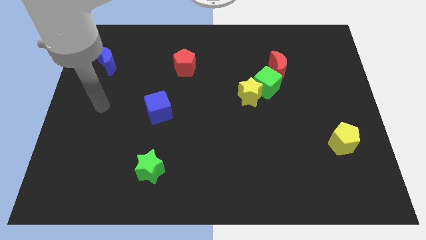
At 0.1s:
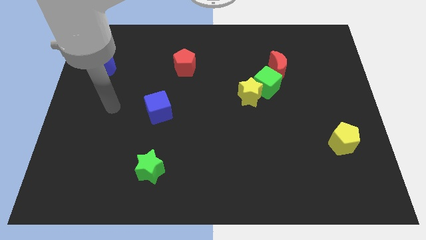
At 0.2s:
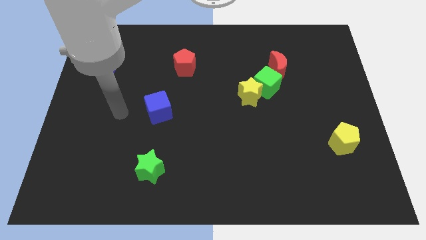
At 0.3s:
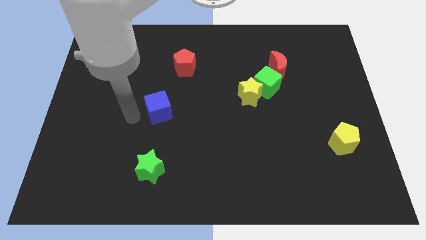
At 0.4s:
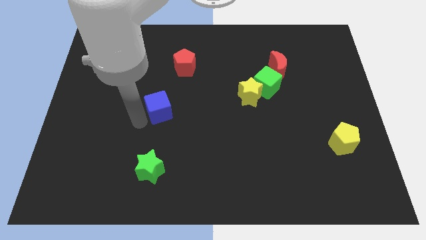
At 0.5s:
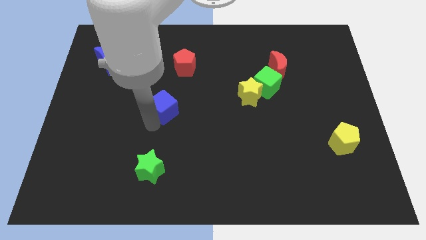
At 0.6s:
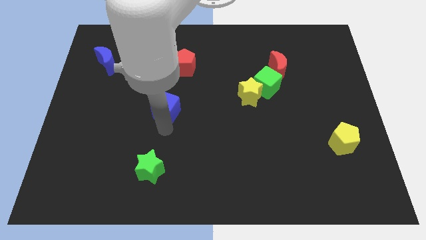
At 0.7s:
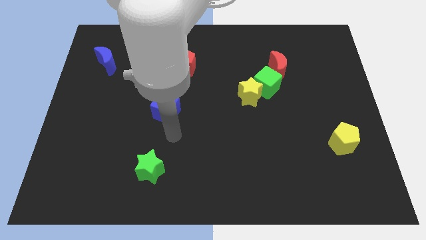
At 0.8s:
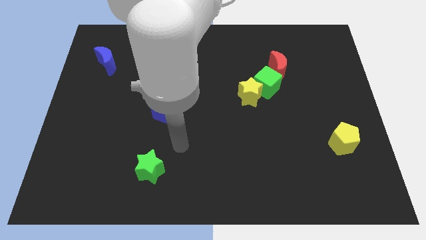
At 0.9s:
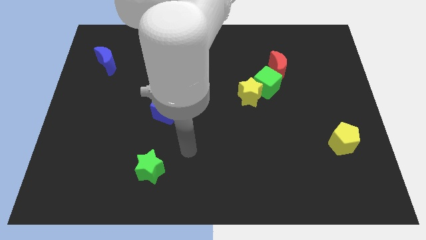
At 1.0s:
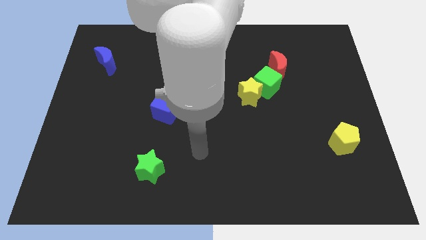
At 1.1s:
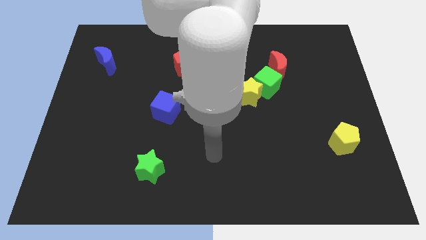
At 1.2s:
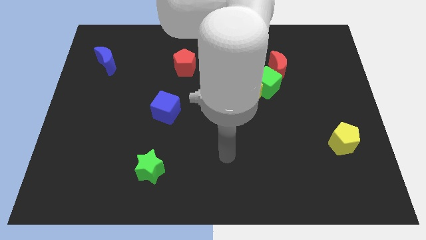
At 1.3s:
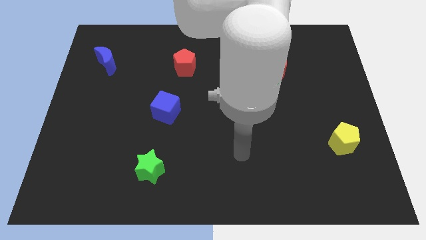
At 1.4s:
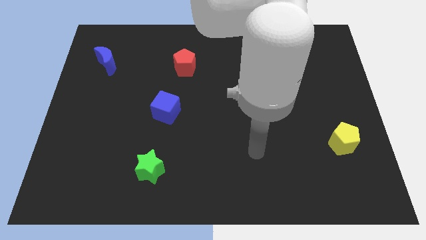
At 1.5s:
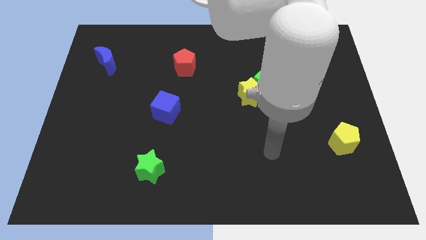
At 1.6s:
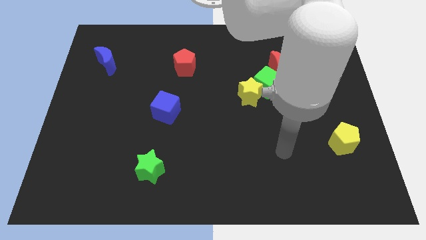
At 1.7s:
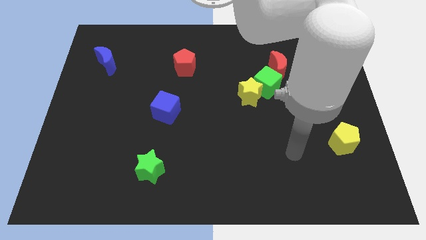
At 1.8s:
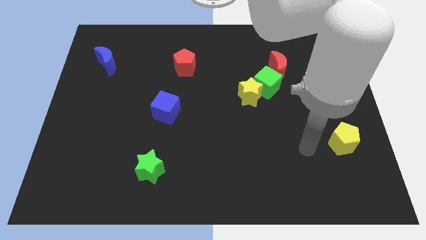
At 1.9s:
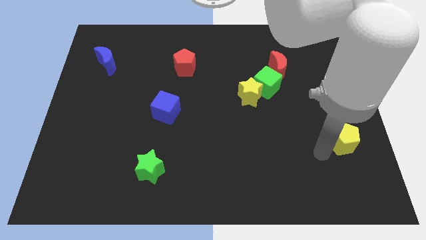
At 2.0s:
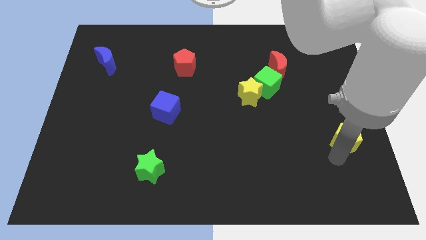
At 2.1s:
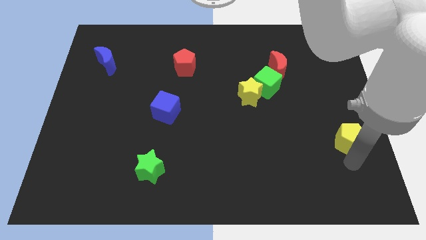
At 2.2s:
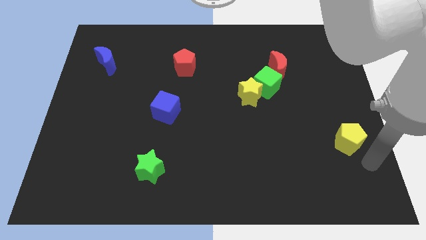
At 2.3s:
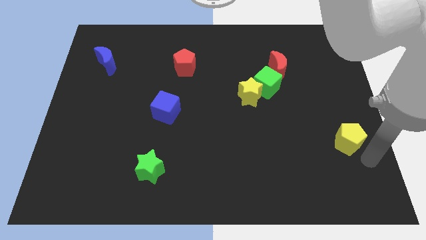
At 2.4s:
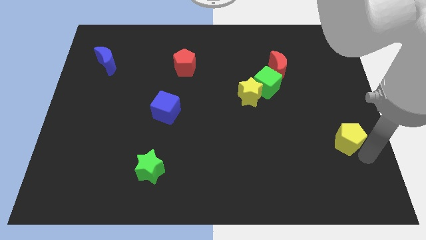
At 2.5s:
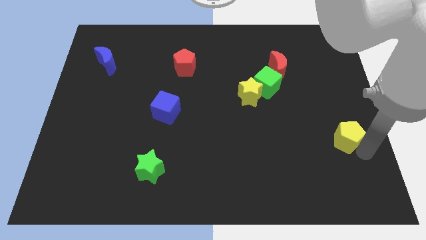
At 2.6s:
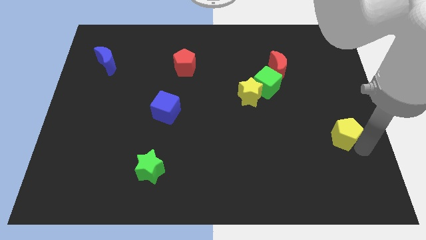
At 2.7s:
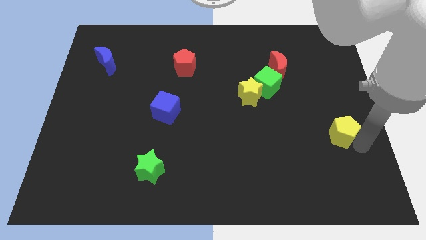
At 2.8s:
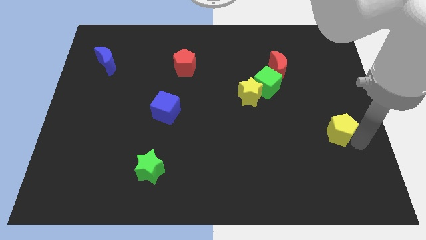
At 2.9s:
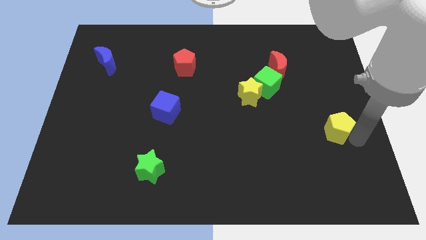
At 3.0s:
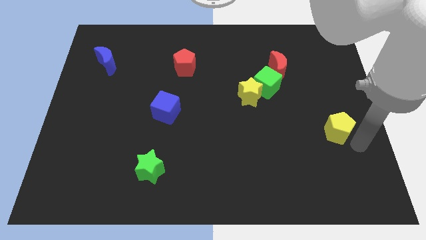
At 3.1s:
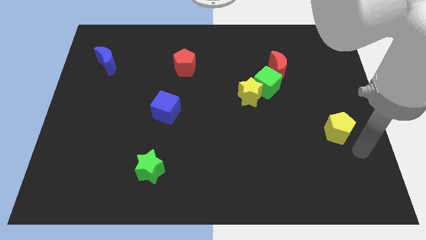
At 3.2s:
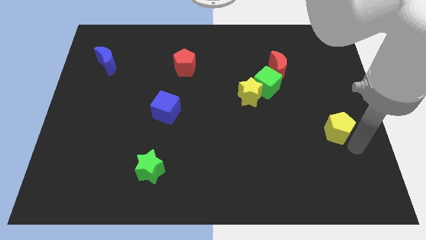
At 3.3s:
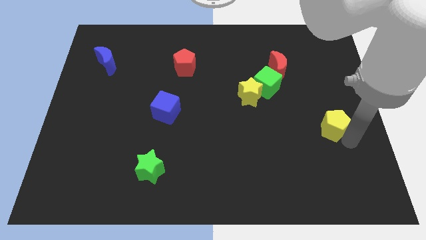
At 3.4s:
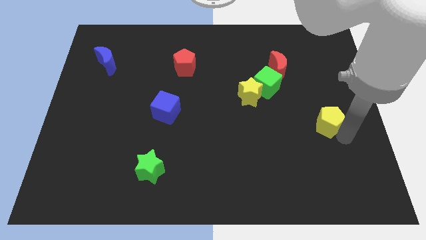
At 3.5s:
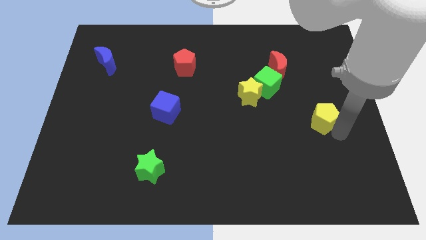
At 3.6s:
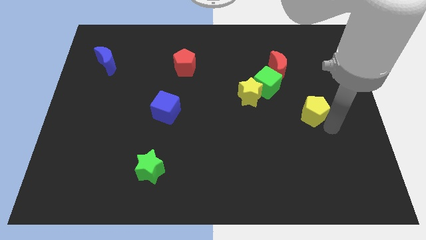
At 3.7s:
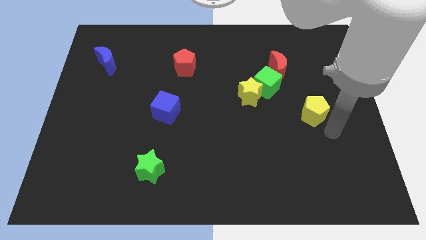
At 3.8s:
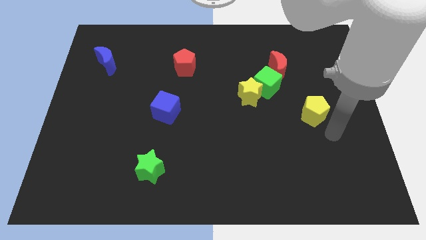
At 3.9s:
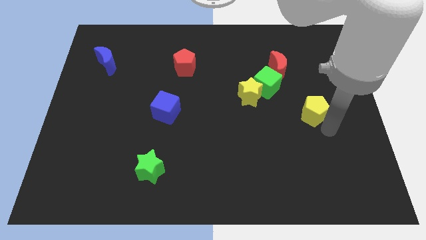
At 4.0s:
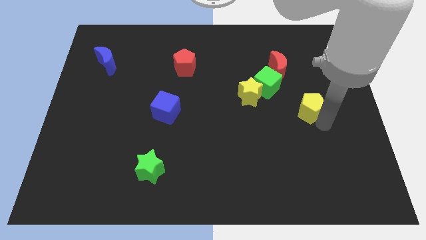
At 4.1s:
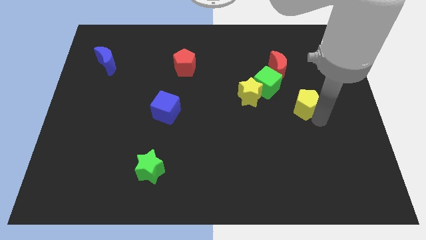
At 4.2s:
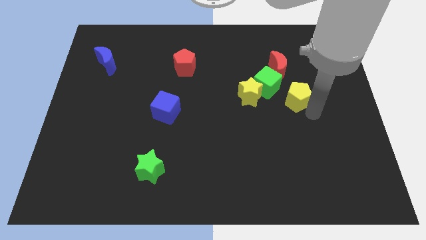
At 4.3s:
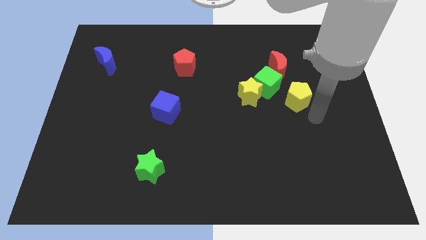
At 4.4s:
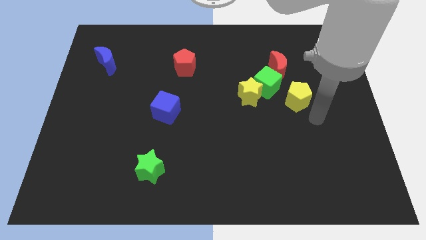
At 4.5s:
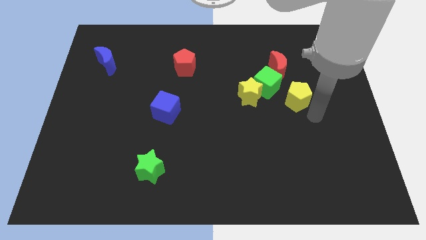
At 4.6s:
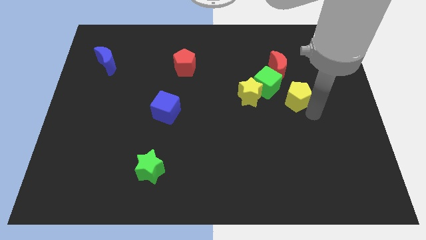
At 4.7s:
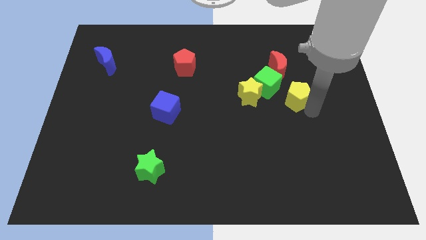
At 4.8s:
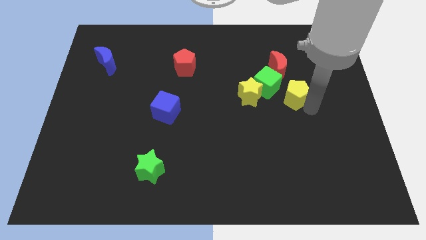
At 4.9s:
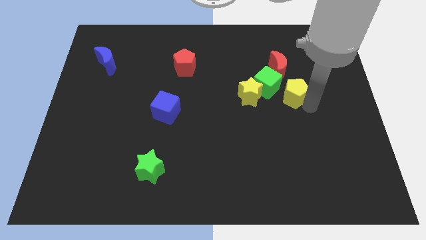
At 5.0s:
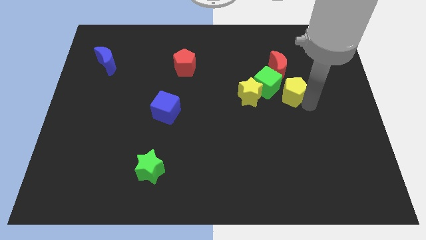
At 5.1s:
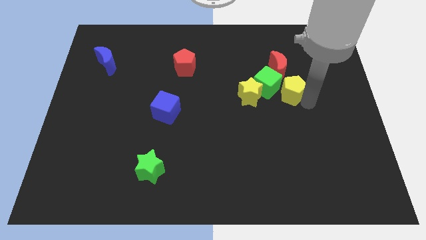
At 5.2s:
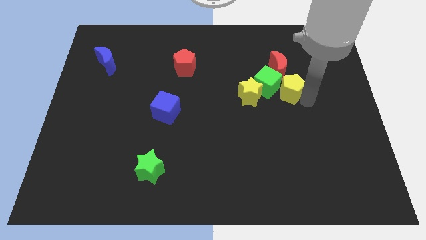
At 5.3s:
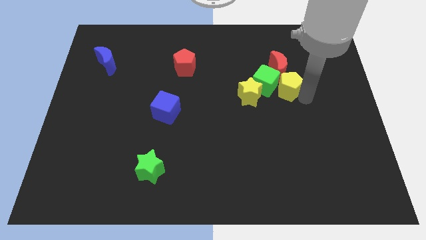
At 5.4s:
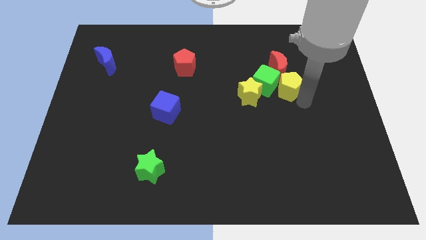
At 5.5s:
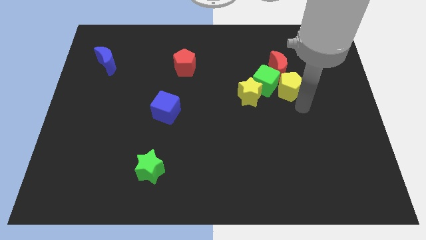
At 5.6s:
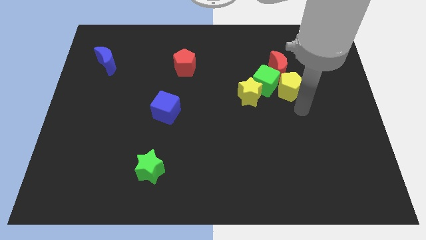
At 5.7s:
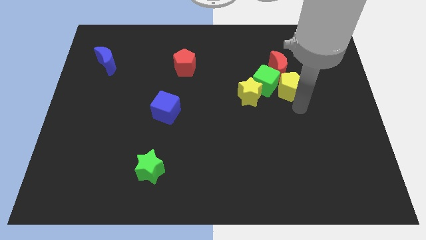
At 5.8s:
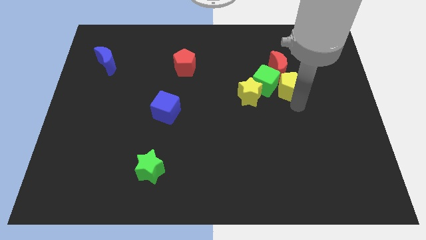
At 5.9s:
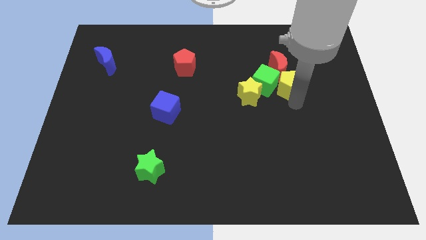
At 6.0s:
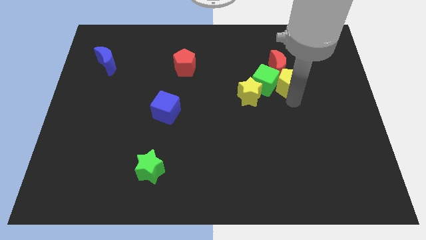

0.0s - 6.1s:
put the yellow pentagon to the red moon

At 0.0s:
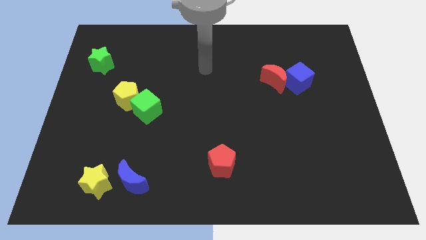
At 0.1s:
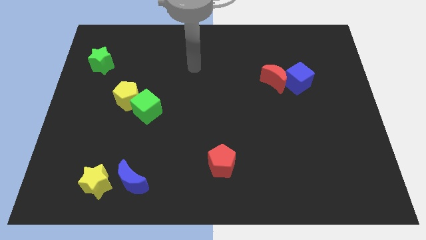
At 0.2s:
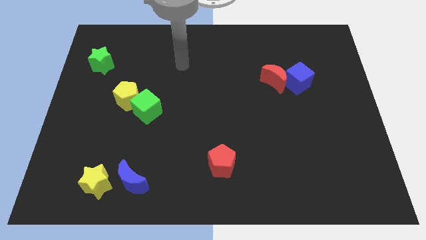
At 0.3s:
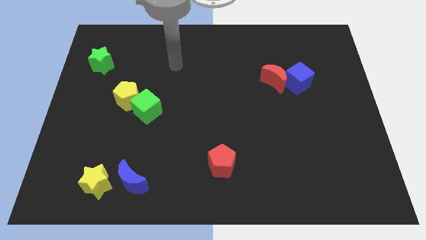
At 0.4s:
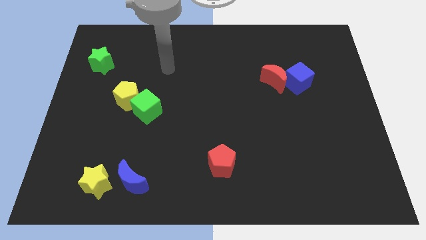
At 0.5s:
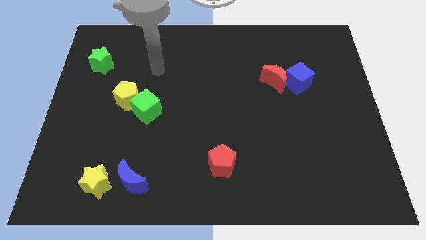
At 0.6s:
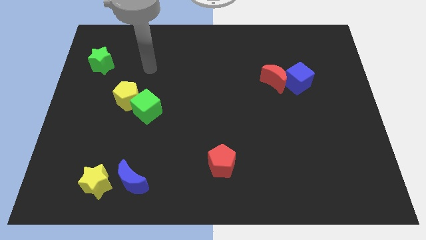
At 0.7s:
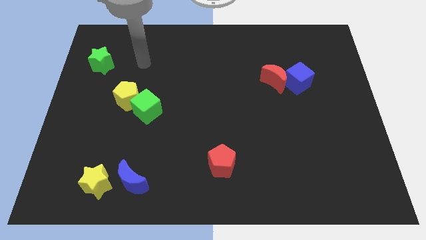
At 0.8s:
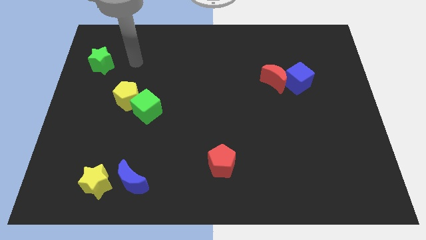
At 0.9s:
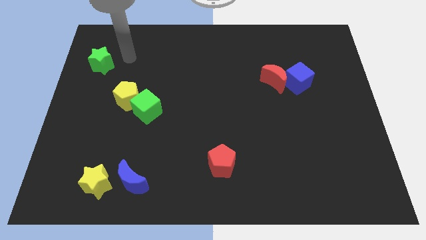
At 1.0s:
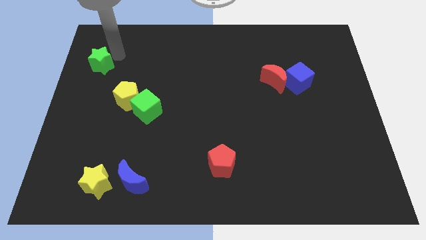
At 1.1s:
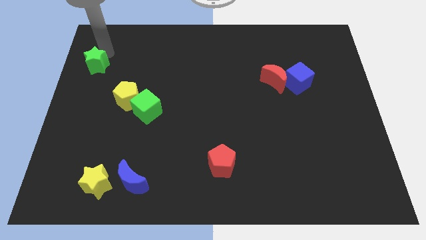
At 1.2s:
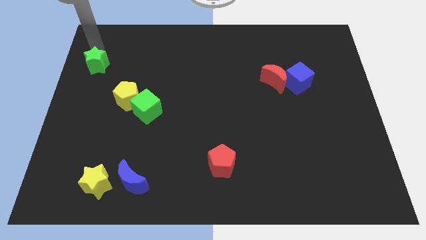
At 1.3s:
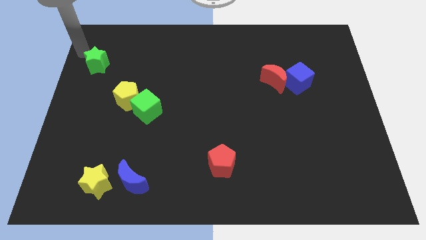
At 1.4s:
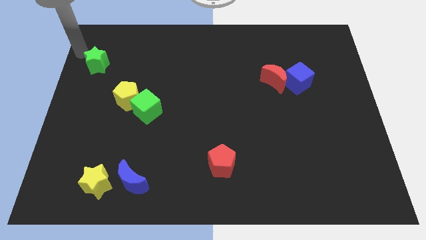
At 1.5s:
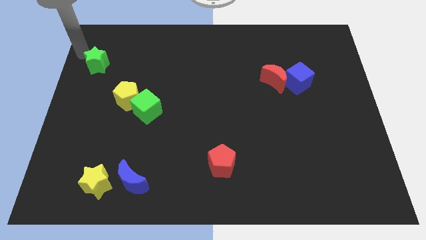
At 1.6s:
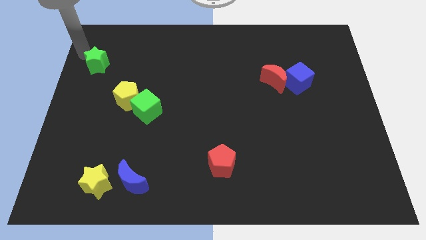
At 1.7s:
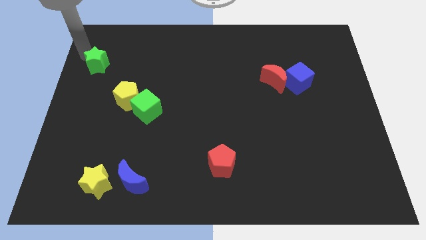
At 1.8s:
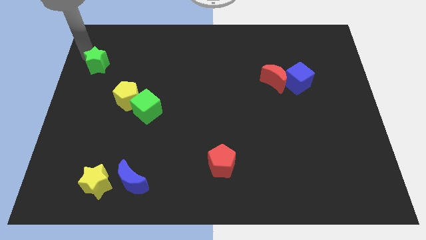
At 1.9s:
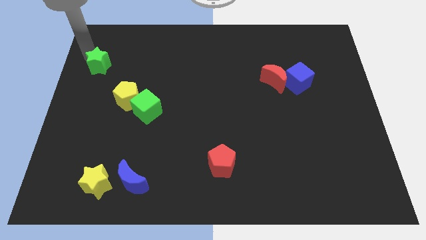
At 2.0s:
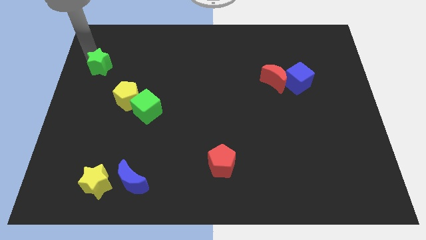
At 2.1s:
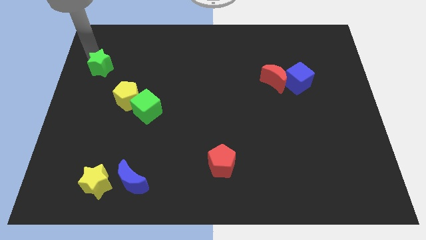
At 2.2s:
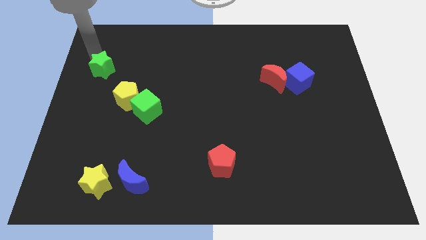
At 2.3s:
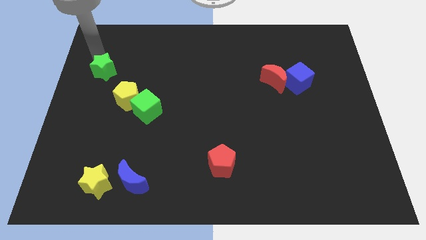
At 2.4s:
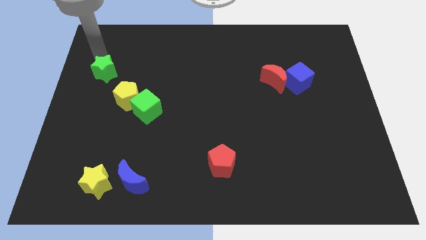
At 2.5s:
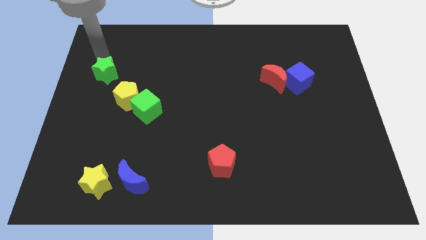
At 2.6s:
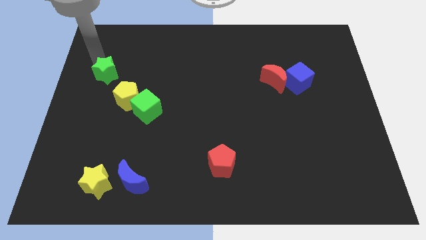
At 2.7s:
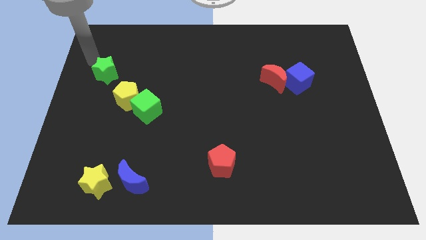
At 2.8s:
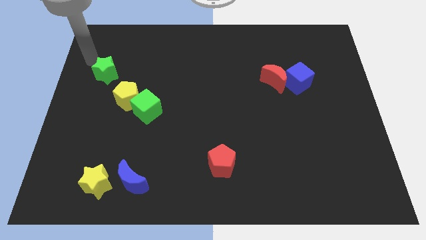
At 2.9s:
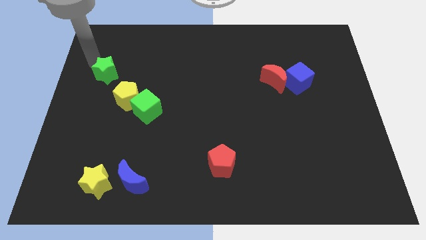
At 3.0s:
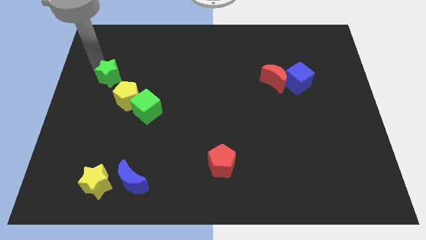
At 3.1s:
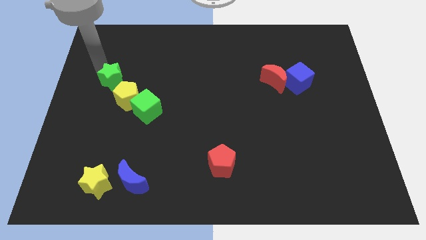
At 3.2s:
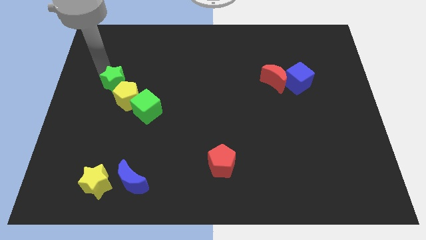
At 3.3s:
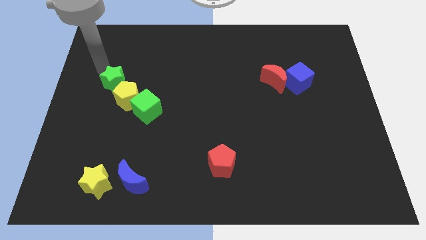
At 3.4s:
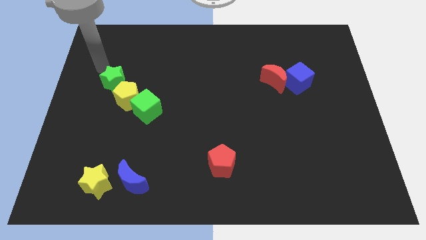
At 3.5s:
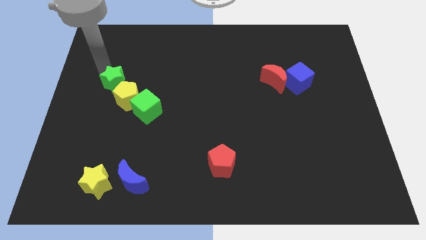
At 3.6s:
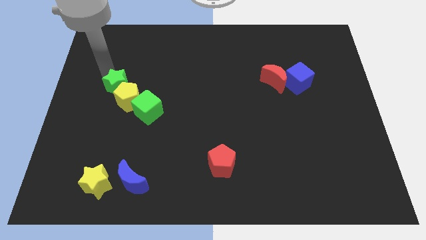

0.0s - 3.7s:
move the green star next to the yellow pentagon
